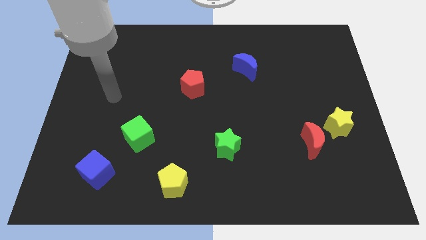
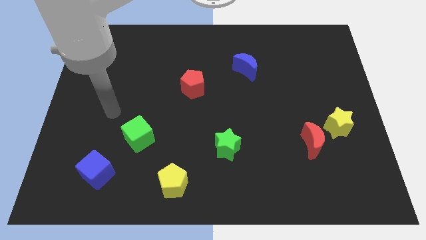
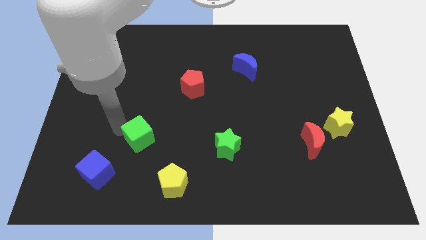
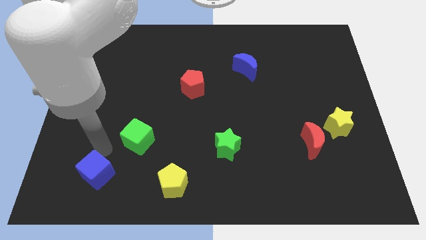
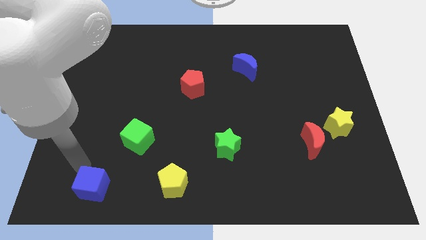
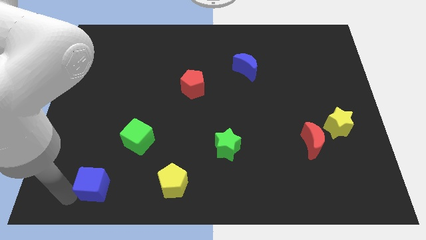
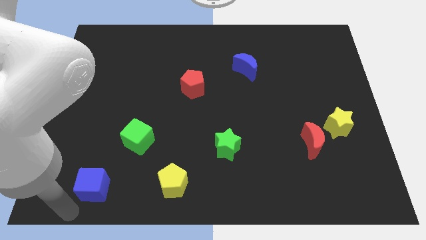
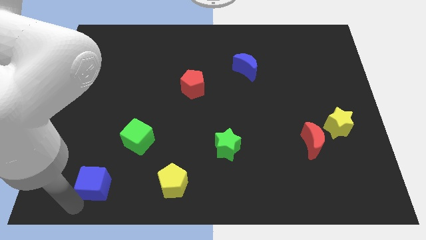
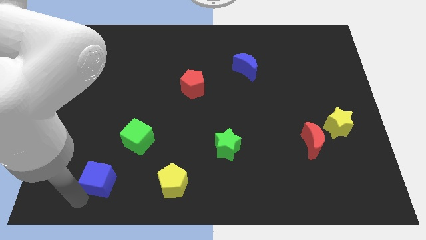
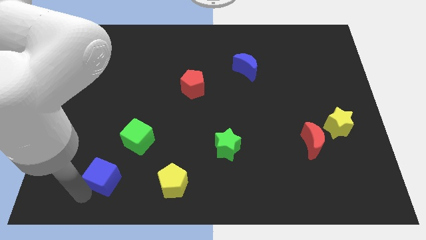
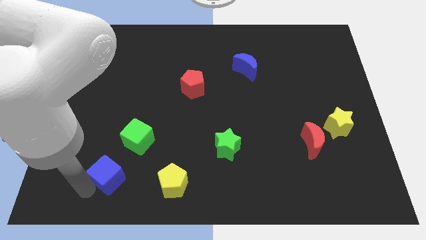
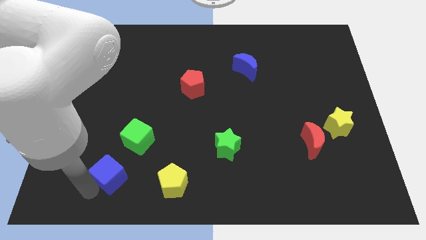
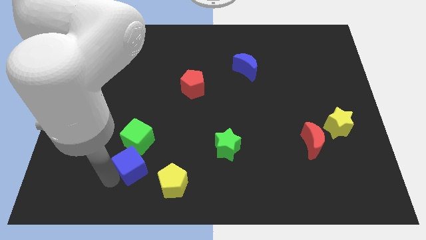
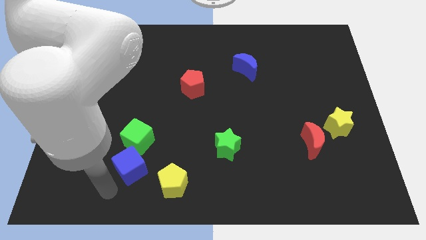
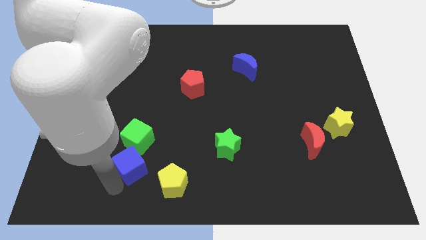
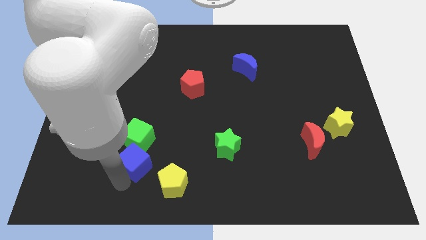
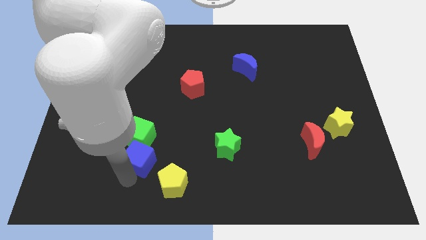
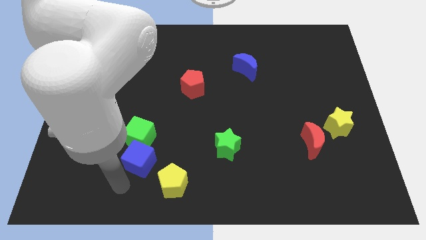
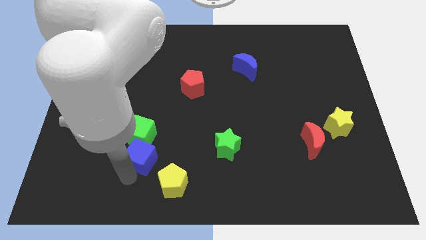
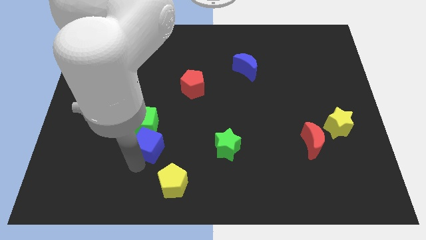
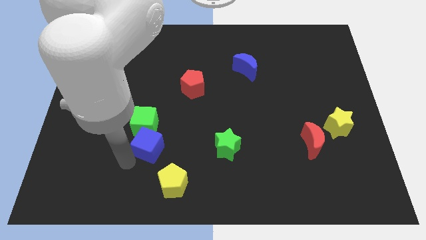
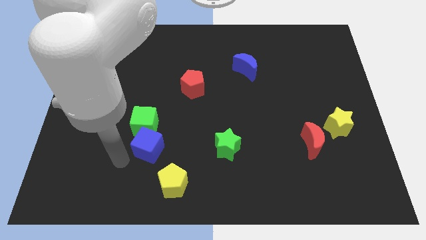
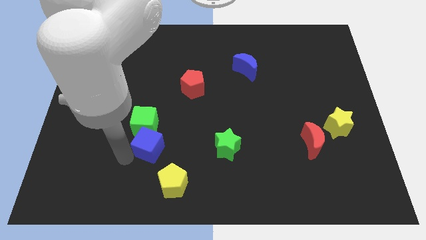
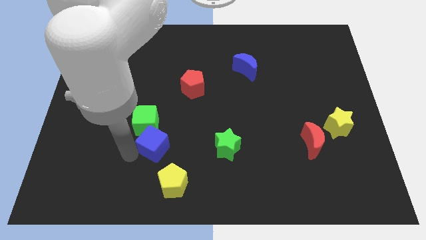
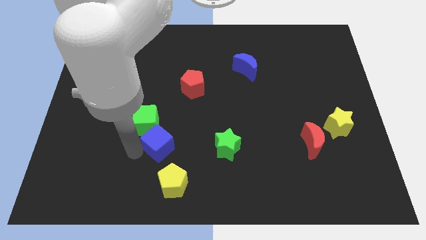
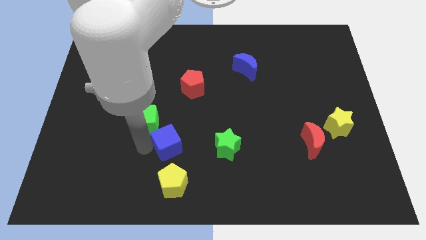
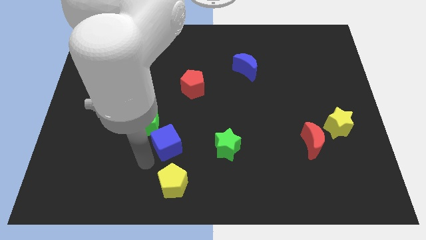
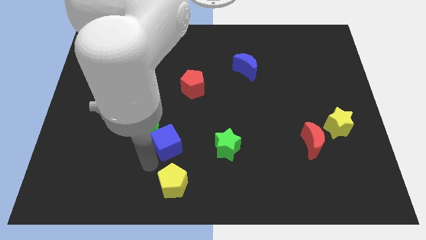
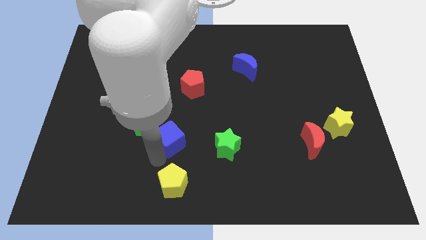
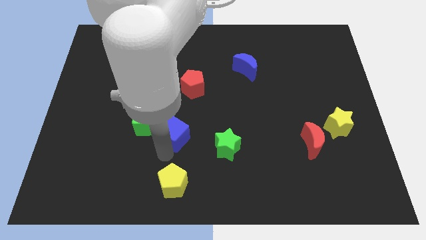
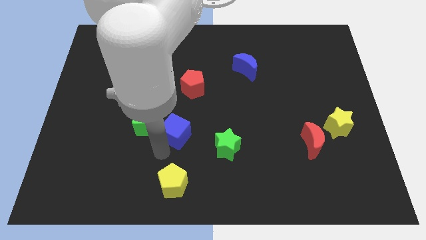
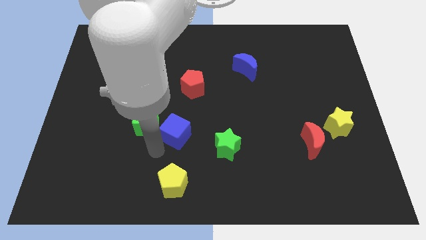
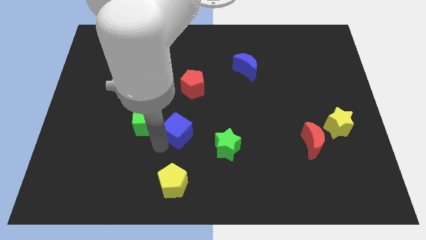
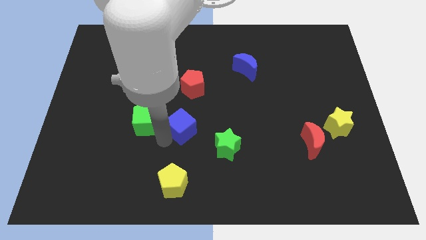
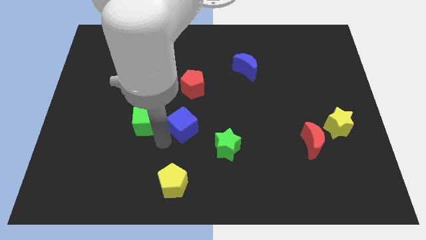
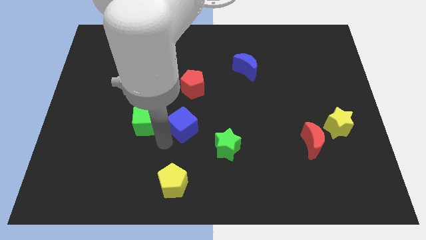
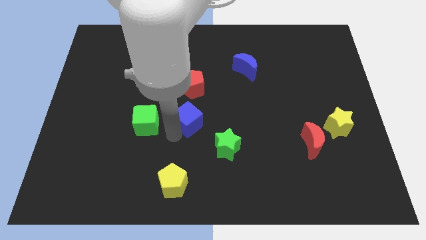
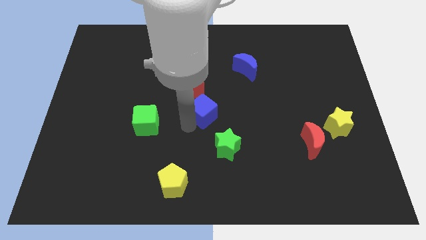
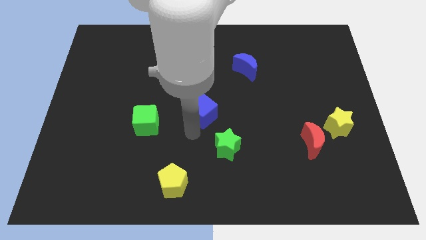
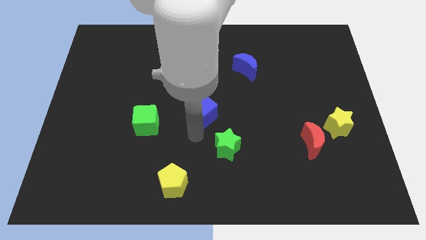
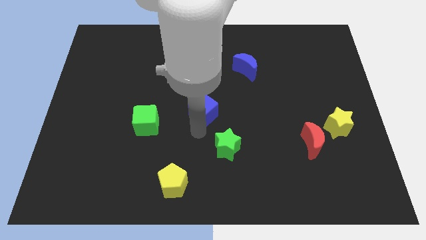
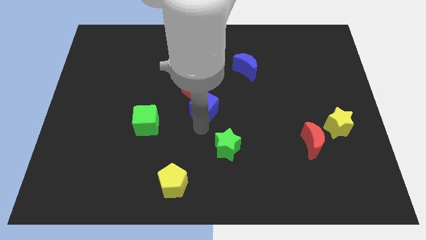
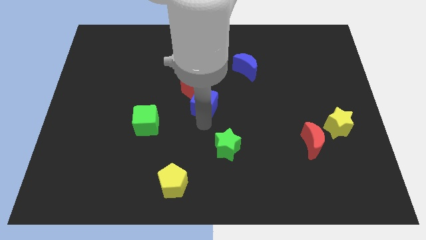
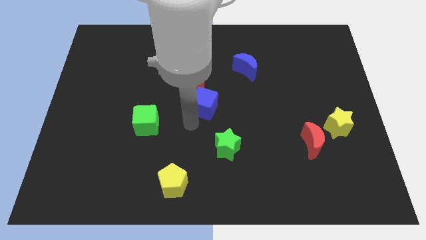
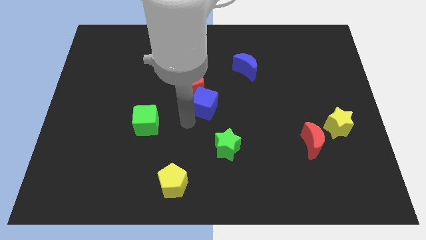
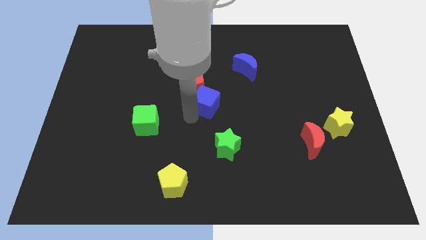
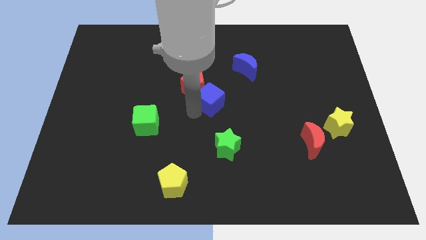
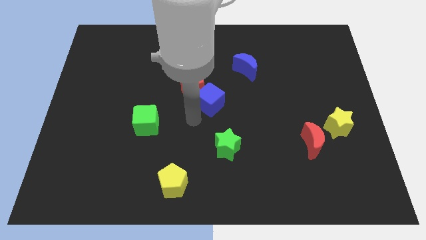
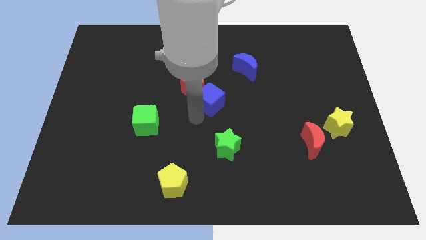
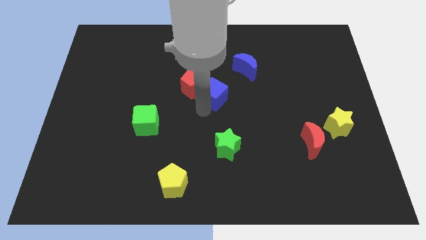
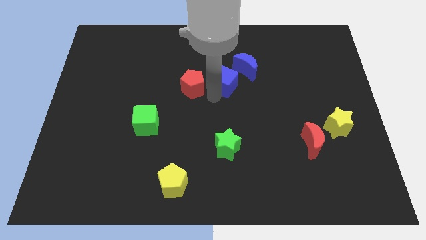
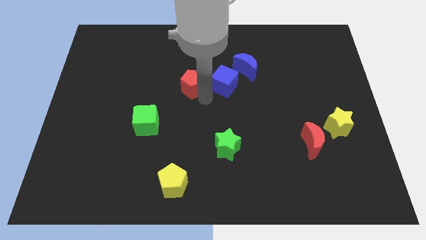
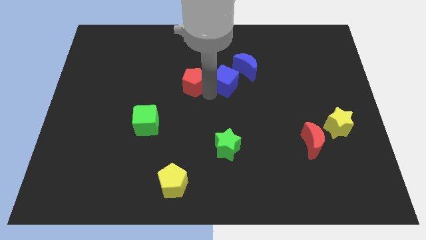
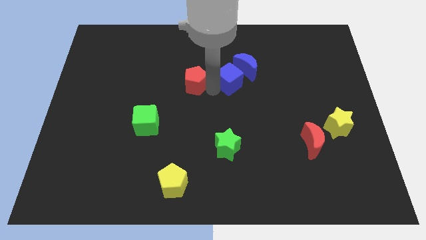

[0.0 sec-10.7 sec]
push the blue cube next to the blue moon

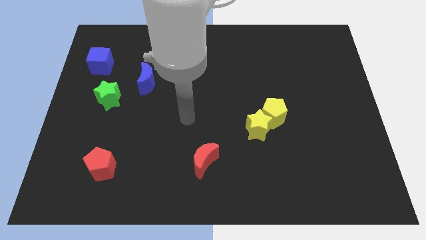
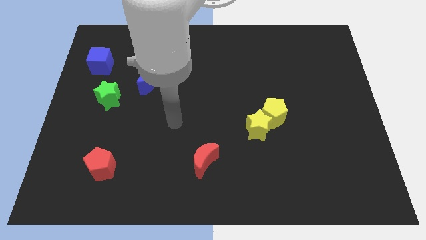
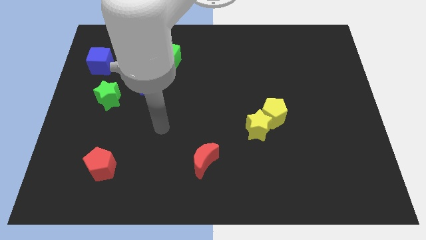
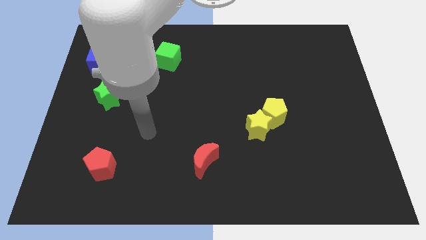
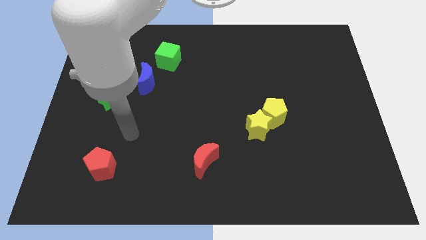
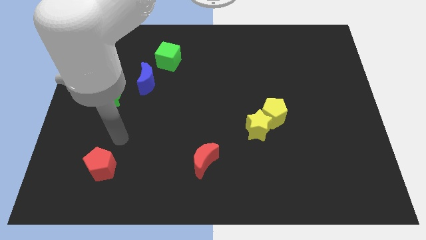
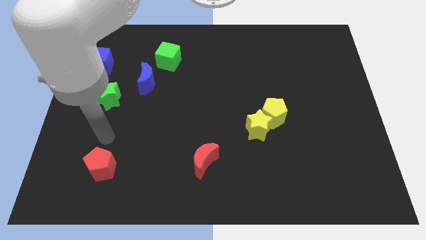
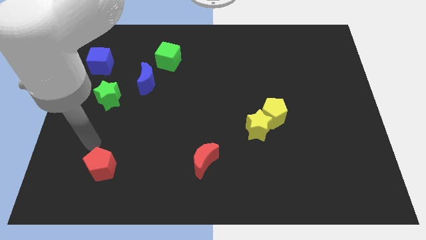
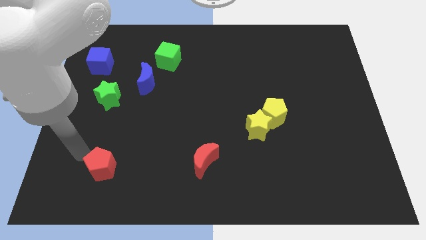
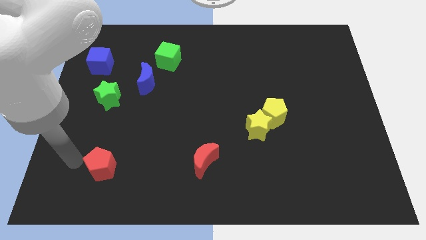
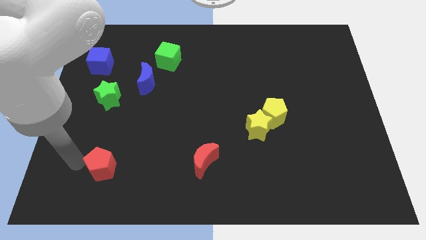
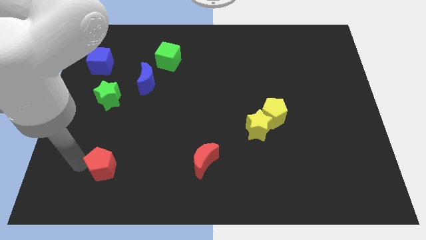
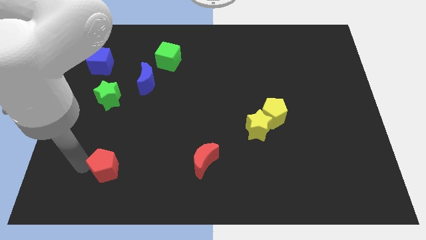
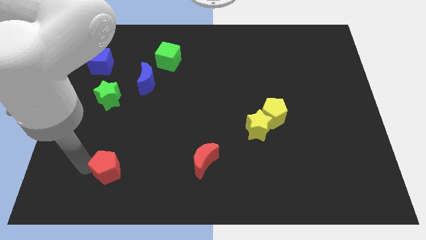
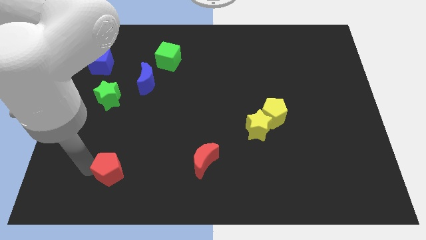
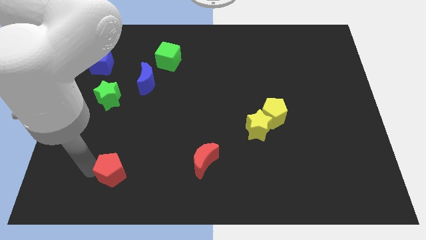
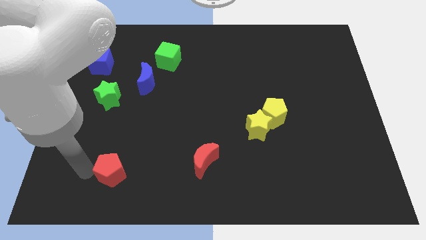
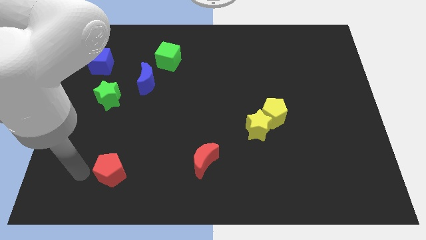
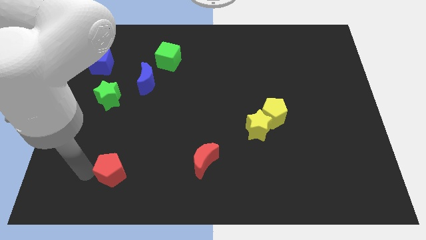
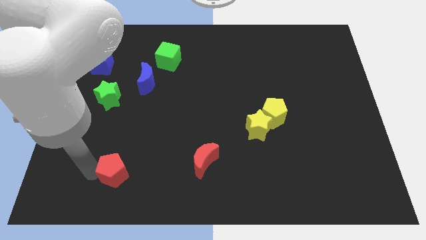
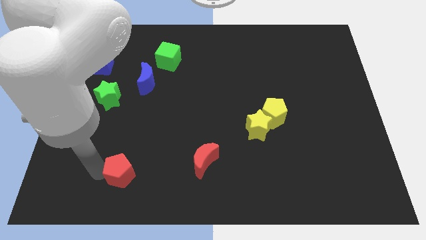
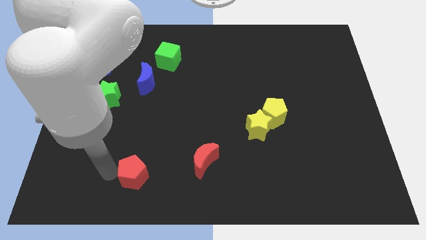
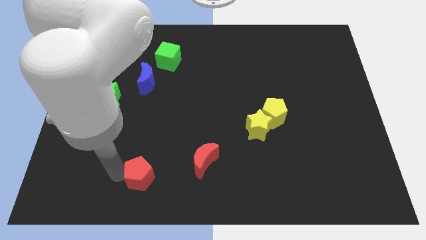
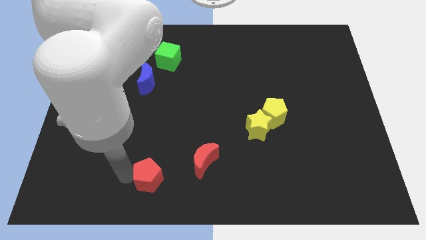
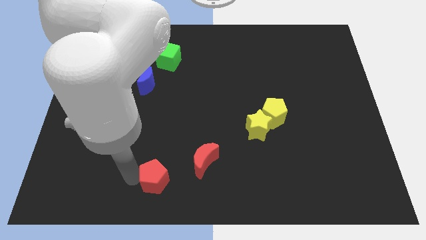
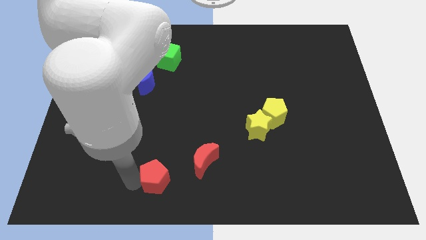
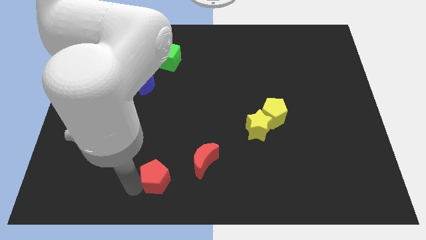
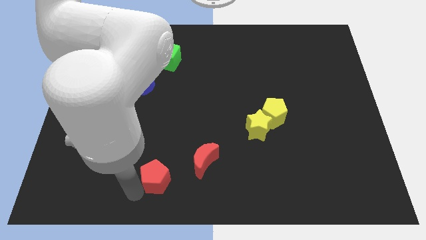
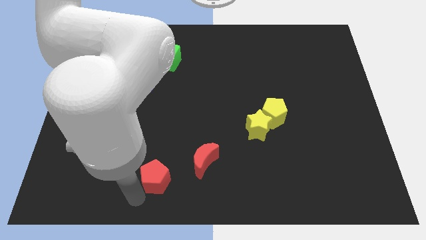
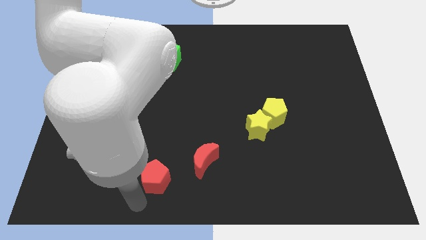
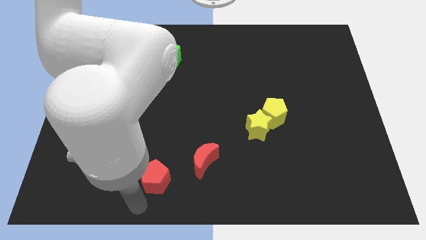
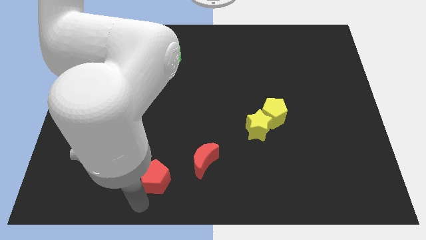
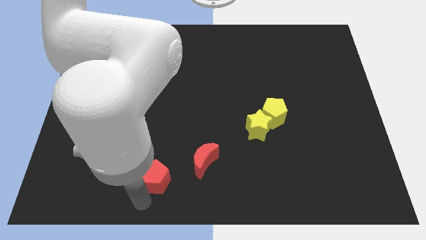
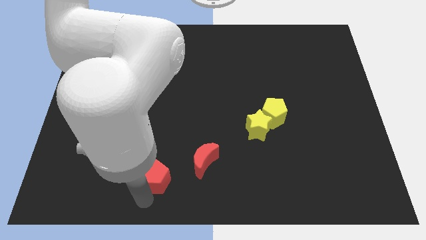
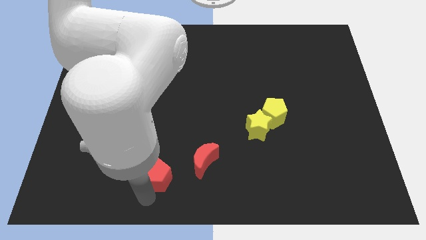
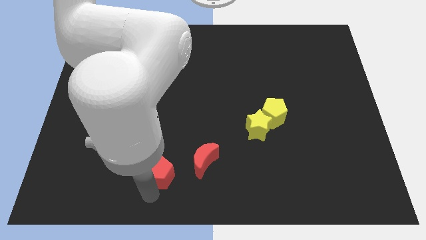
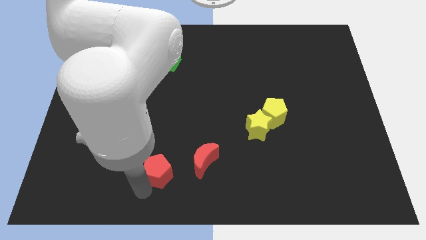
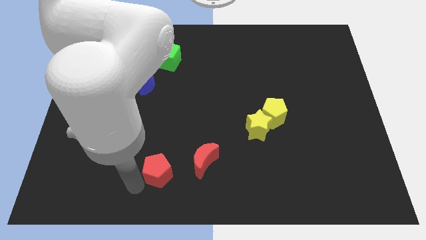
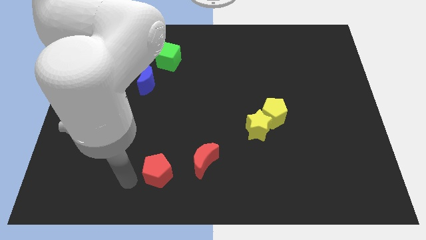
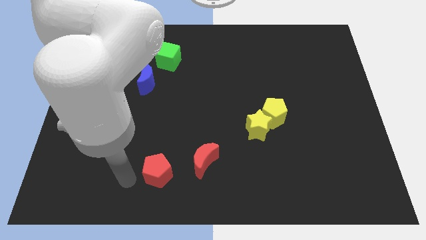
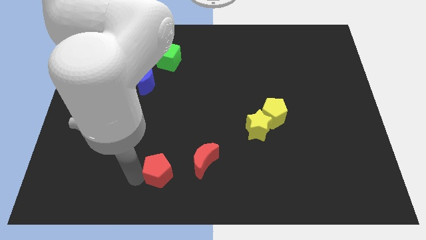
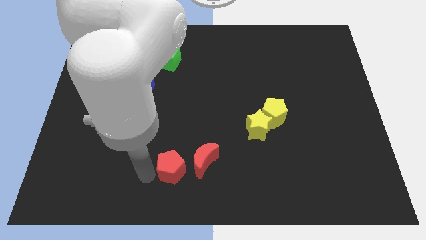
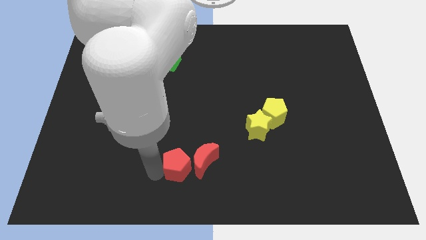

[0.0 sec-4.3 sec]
put the red pentagon towards the red moon
